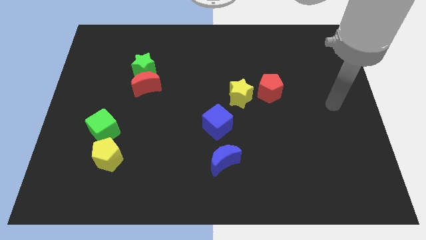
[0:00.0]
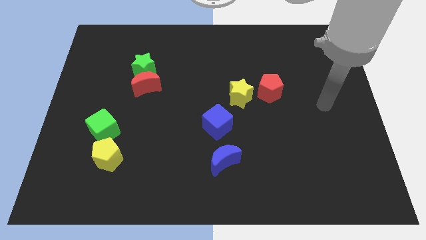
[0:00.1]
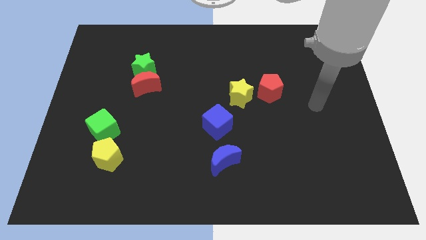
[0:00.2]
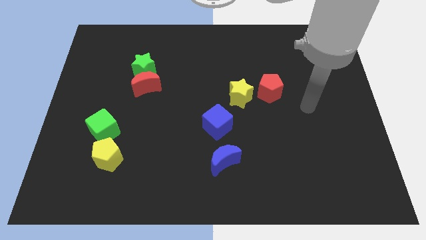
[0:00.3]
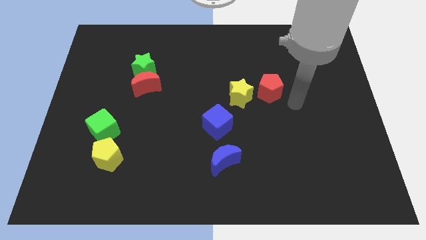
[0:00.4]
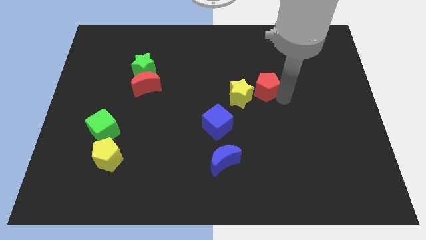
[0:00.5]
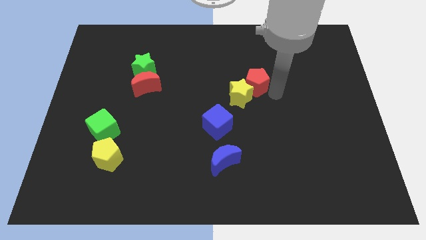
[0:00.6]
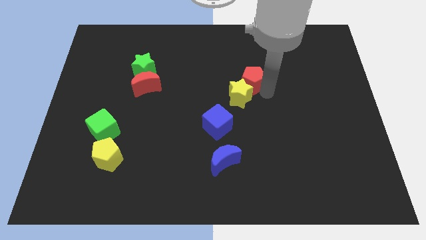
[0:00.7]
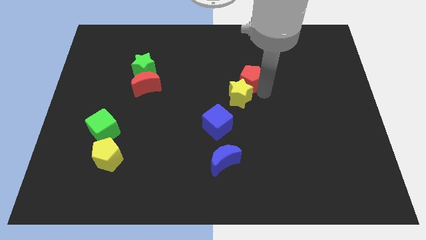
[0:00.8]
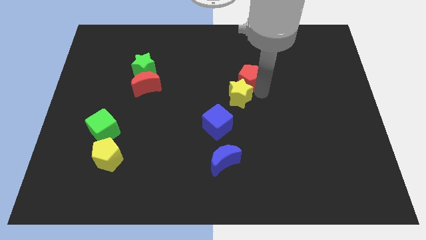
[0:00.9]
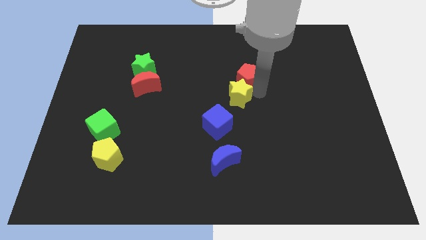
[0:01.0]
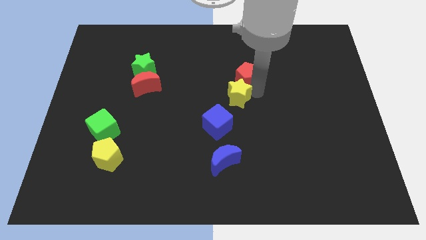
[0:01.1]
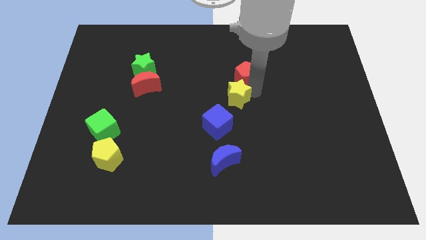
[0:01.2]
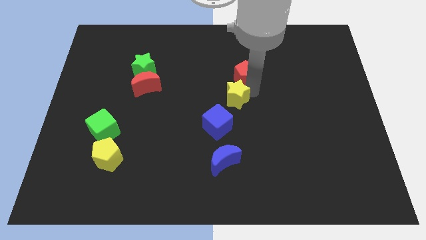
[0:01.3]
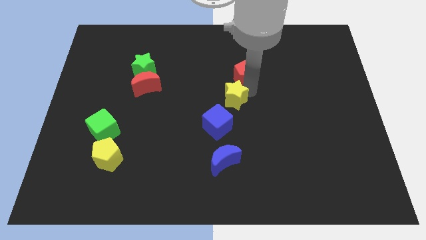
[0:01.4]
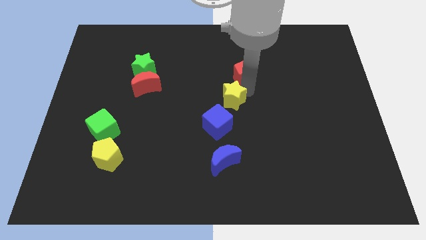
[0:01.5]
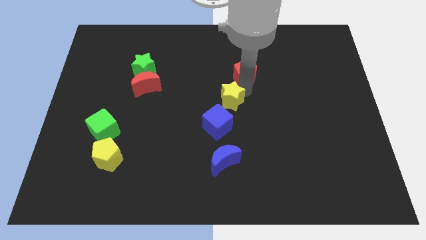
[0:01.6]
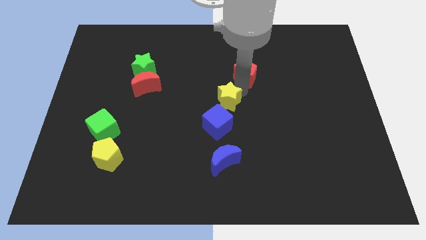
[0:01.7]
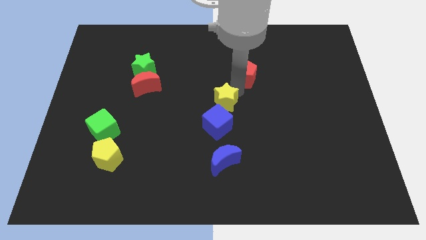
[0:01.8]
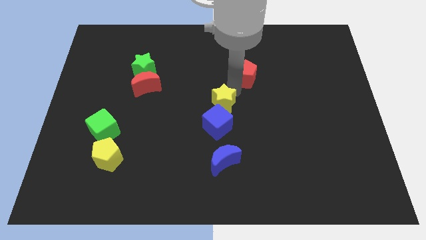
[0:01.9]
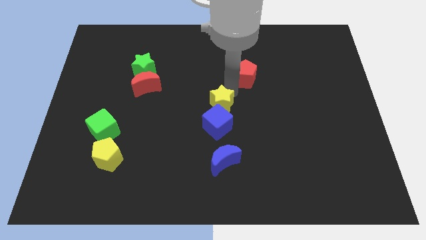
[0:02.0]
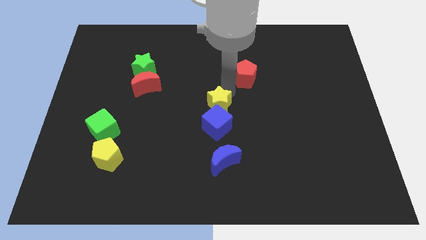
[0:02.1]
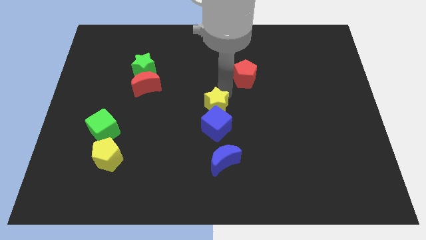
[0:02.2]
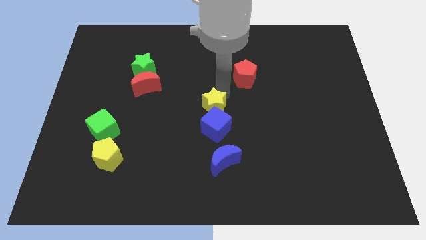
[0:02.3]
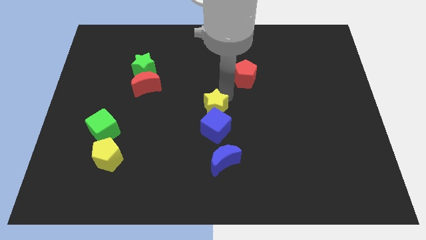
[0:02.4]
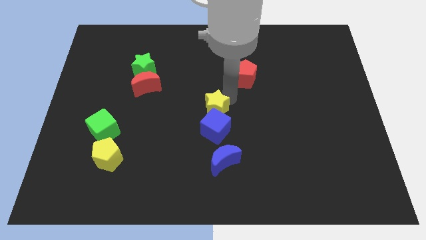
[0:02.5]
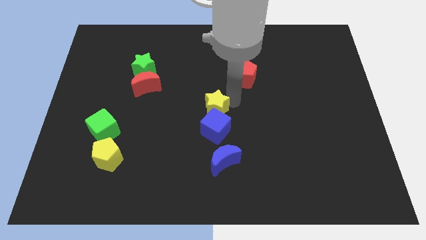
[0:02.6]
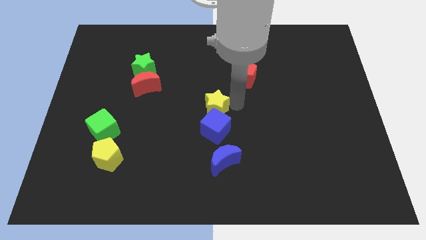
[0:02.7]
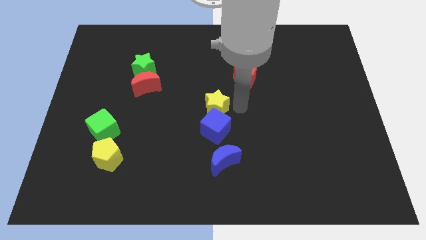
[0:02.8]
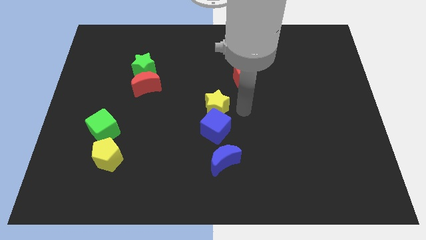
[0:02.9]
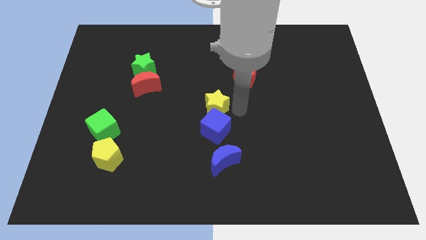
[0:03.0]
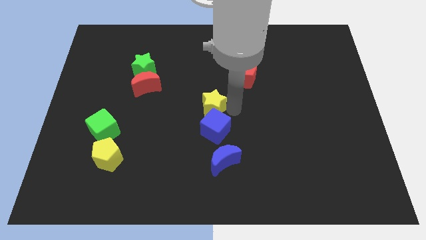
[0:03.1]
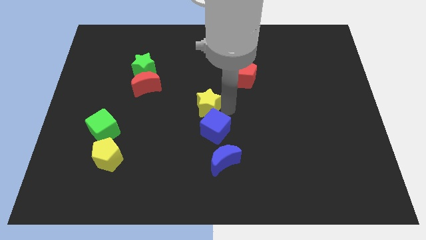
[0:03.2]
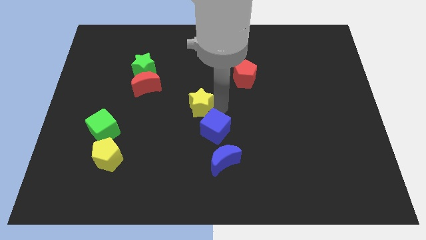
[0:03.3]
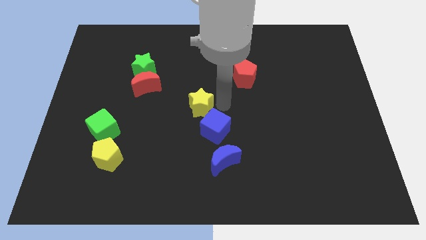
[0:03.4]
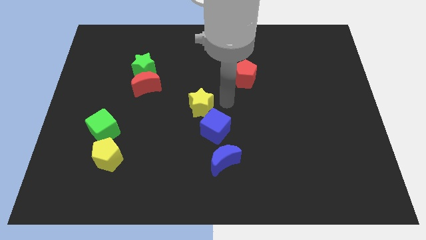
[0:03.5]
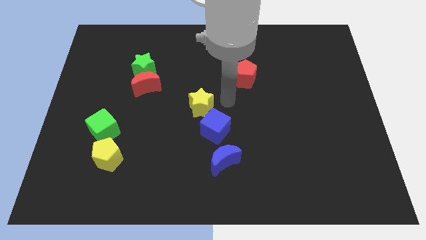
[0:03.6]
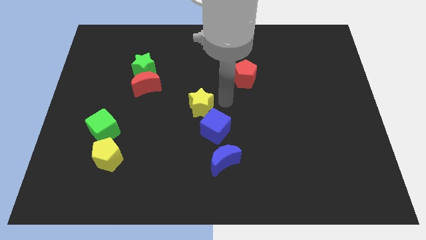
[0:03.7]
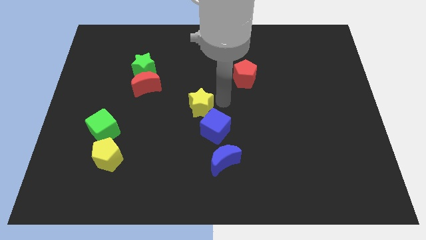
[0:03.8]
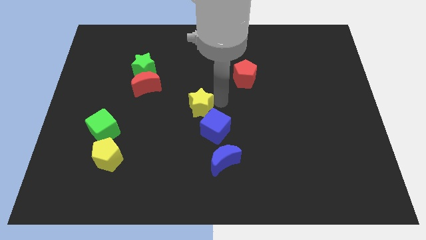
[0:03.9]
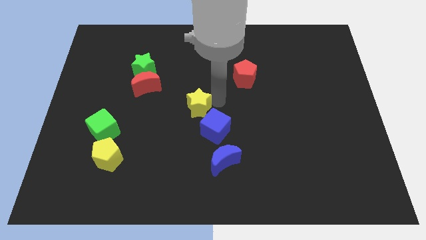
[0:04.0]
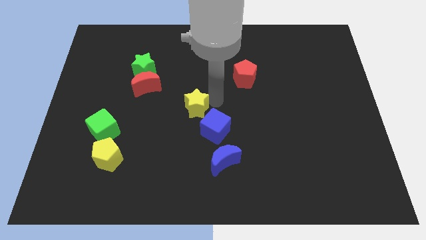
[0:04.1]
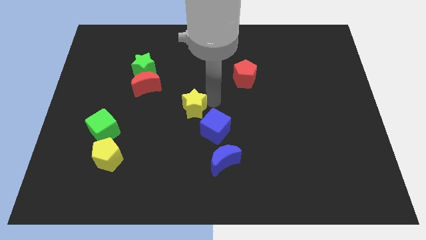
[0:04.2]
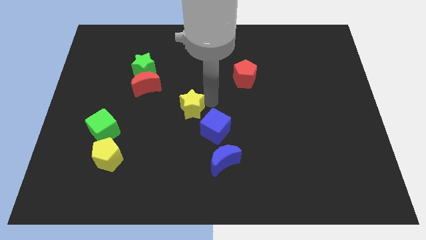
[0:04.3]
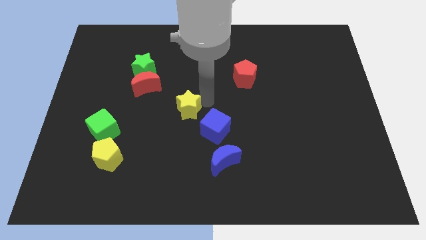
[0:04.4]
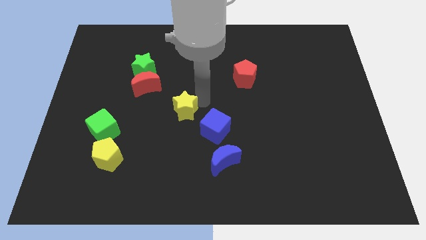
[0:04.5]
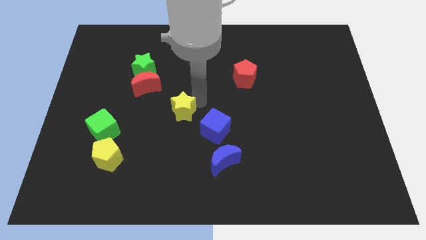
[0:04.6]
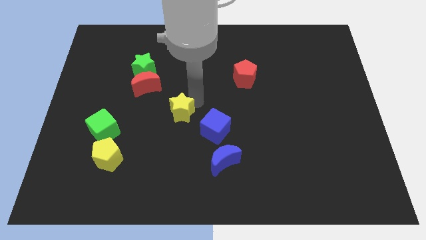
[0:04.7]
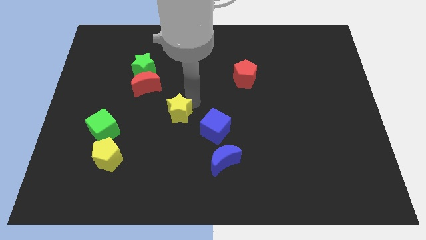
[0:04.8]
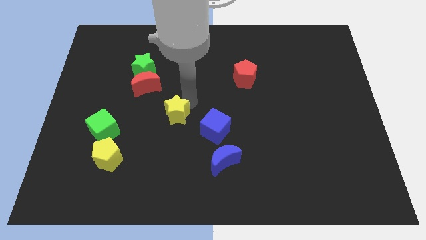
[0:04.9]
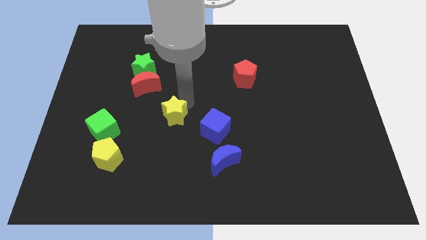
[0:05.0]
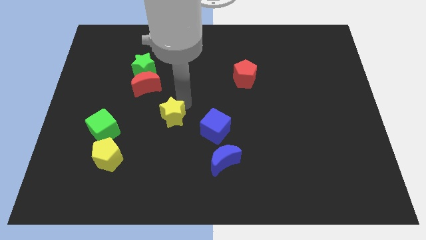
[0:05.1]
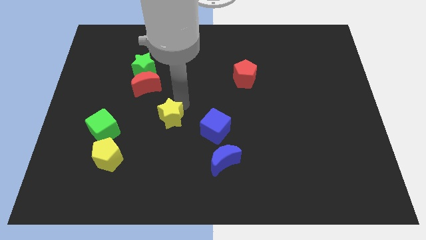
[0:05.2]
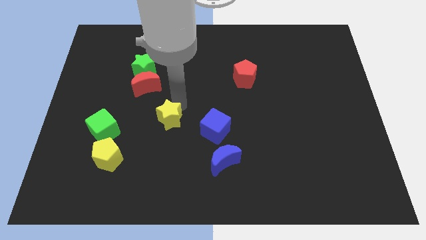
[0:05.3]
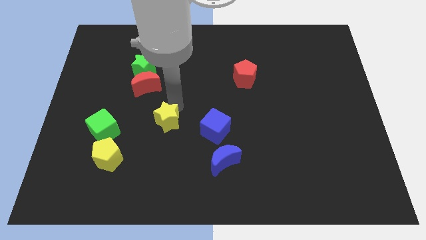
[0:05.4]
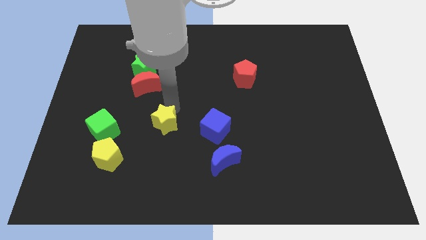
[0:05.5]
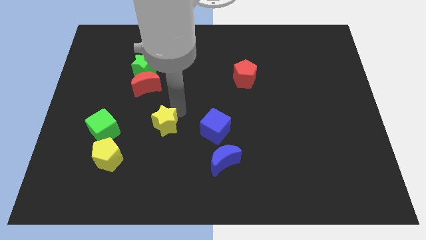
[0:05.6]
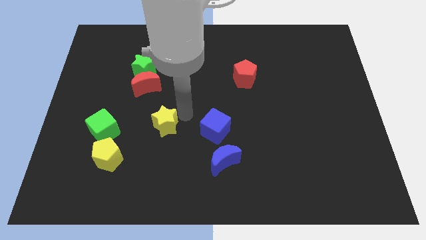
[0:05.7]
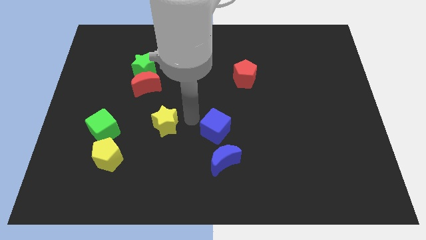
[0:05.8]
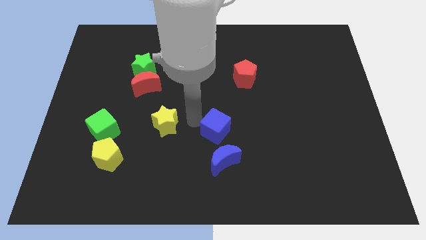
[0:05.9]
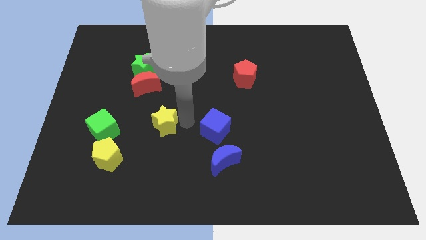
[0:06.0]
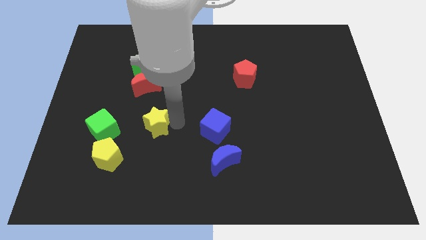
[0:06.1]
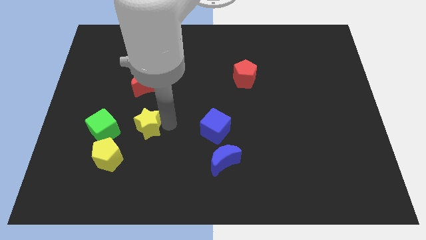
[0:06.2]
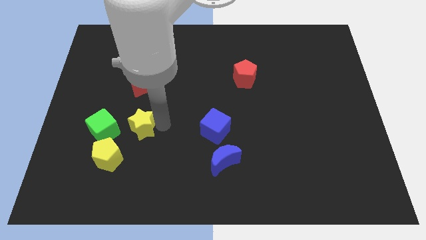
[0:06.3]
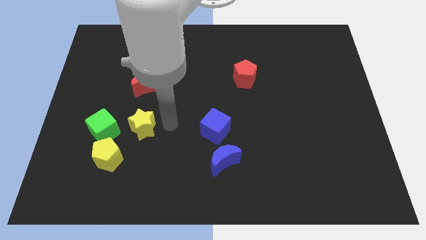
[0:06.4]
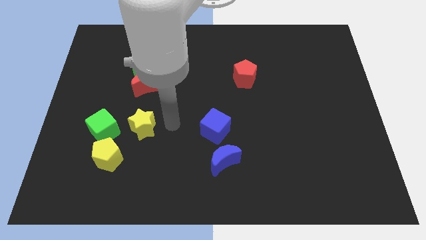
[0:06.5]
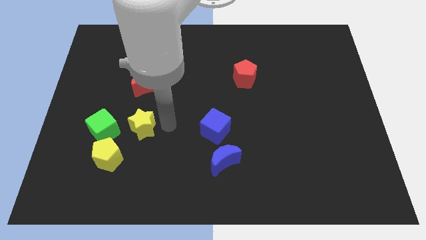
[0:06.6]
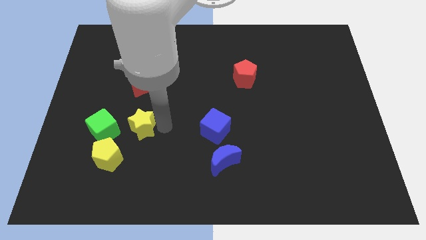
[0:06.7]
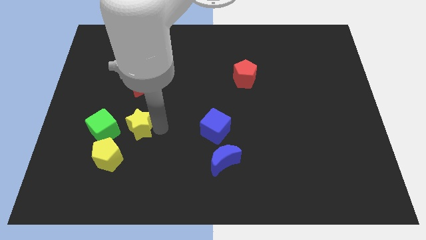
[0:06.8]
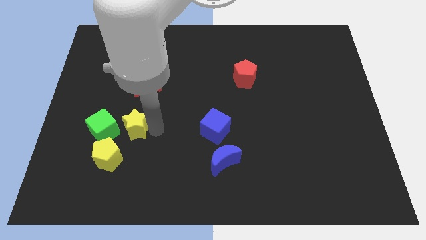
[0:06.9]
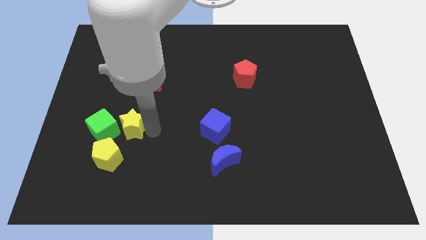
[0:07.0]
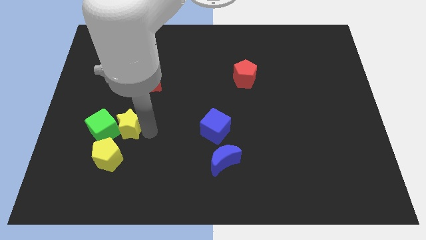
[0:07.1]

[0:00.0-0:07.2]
slide the yellow star next to the green cube
